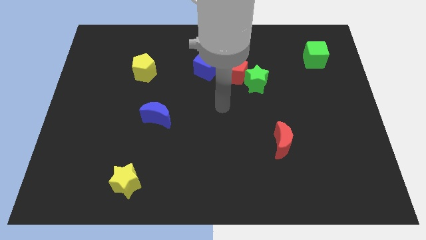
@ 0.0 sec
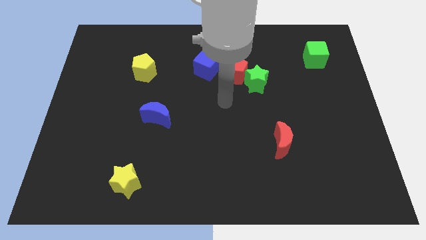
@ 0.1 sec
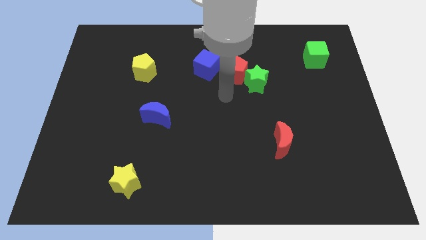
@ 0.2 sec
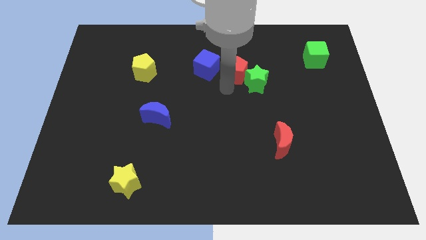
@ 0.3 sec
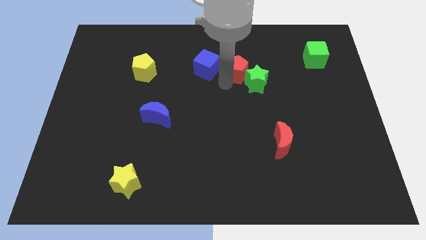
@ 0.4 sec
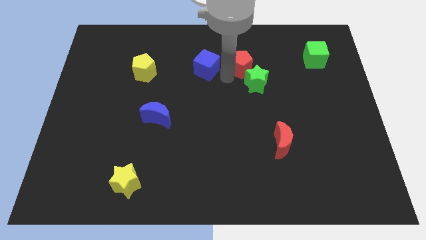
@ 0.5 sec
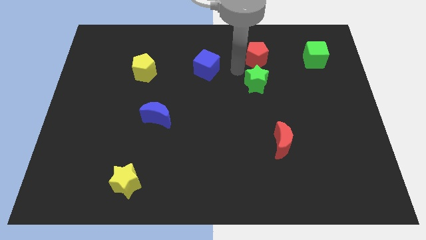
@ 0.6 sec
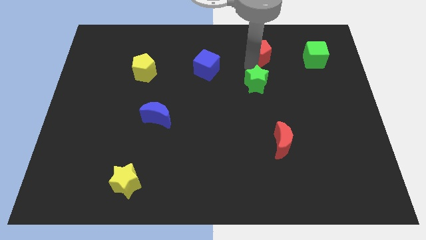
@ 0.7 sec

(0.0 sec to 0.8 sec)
separate the green star from the red pentagon

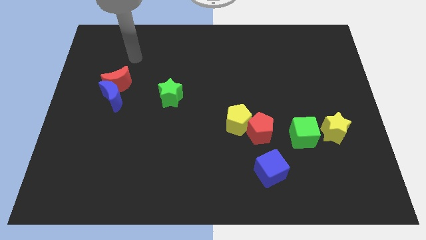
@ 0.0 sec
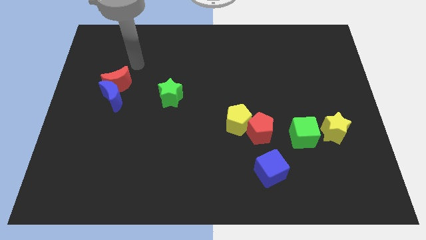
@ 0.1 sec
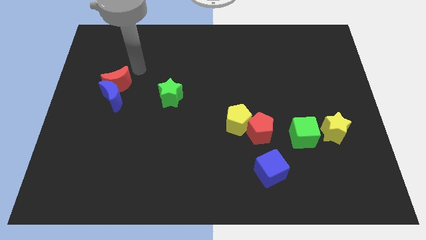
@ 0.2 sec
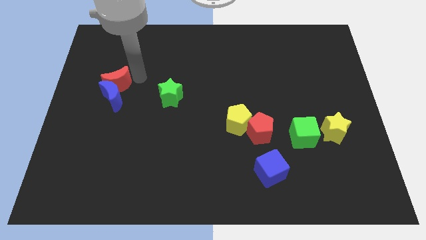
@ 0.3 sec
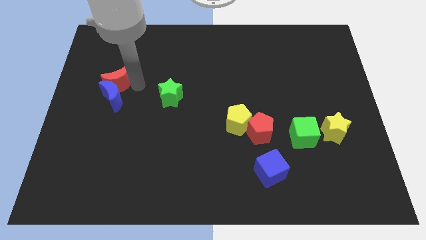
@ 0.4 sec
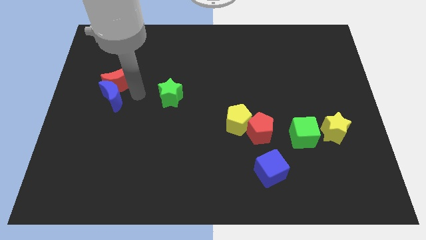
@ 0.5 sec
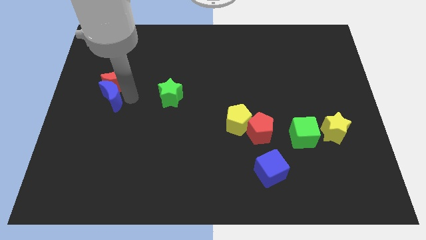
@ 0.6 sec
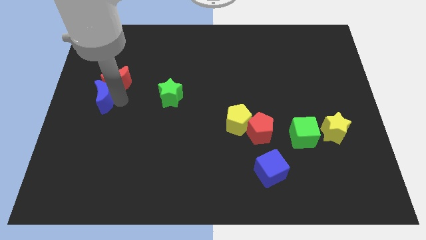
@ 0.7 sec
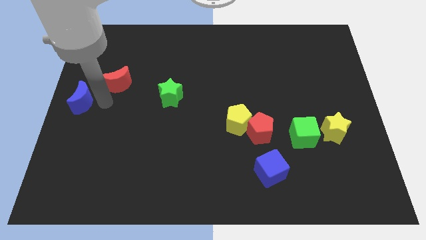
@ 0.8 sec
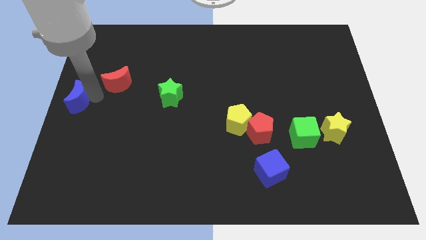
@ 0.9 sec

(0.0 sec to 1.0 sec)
separate the red moon from the blue moon

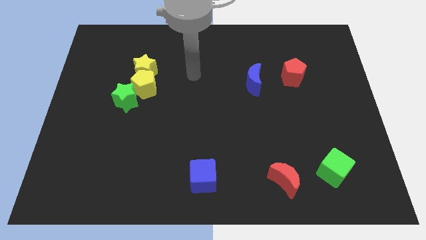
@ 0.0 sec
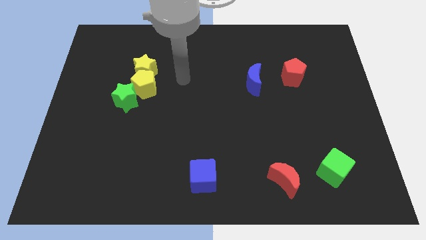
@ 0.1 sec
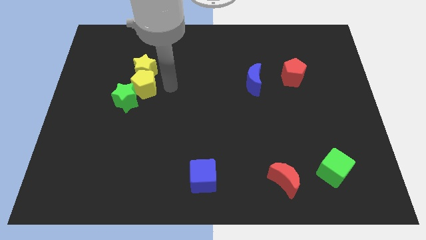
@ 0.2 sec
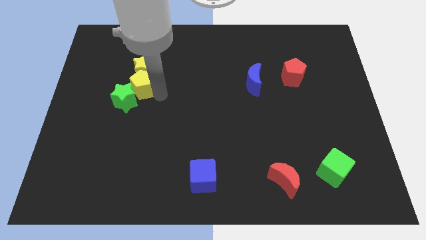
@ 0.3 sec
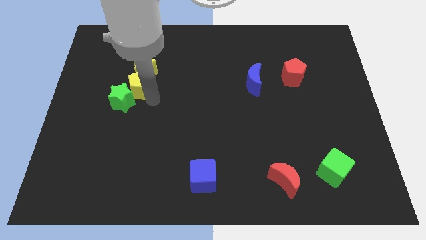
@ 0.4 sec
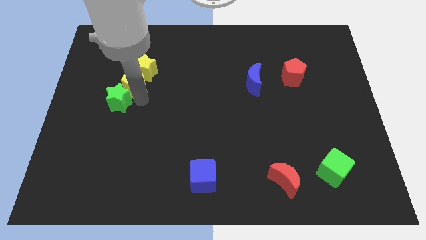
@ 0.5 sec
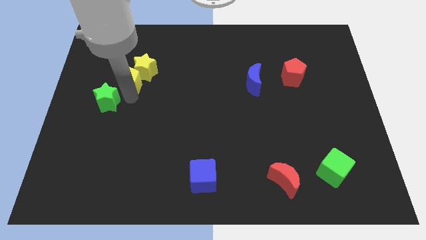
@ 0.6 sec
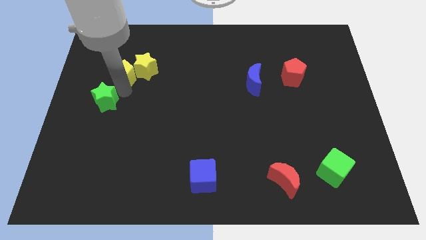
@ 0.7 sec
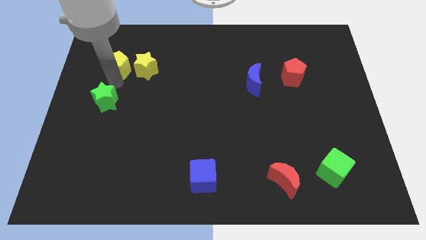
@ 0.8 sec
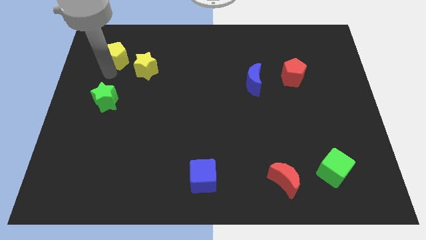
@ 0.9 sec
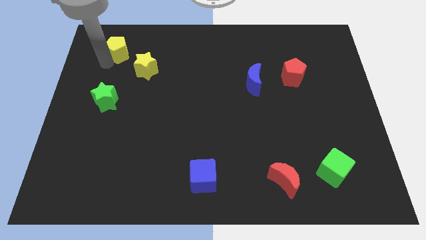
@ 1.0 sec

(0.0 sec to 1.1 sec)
separate the yellow pentagon from the green star and yellow star

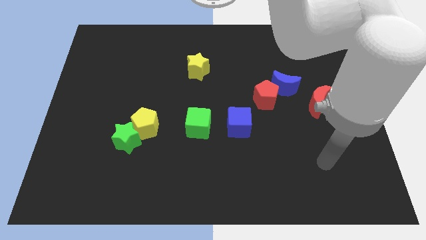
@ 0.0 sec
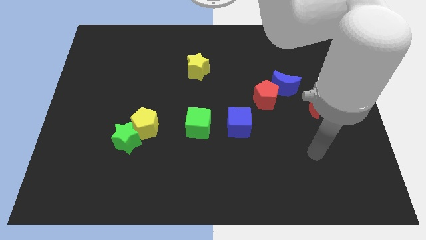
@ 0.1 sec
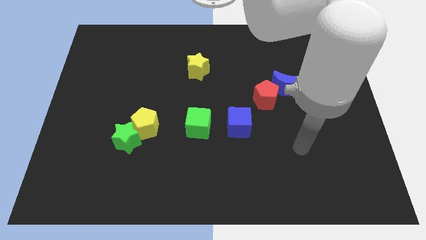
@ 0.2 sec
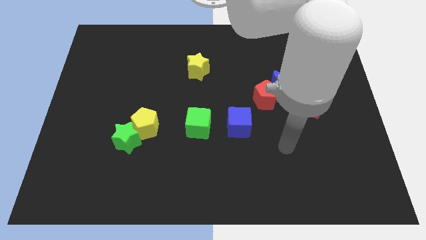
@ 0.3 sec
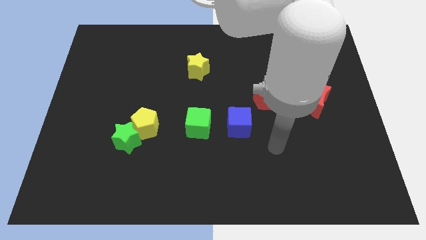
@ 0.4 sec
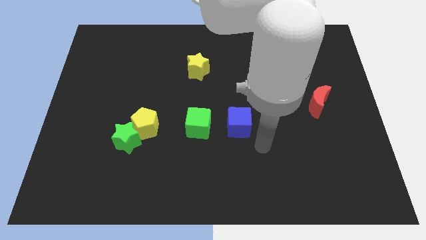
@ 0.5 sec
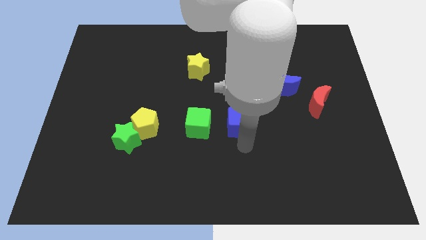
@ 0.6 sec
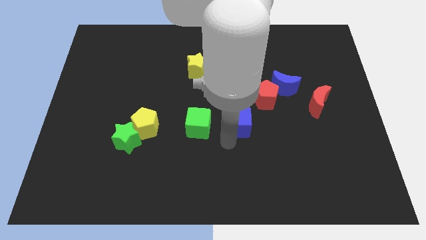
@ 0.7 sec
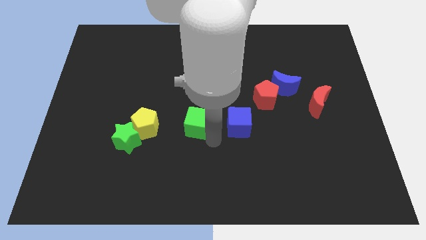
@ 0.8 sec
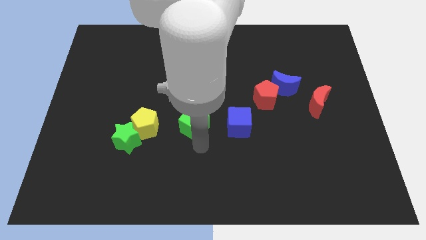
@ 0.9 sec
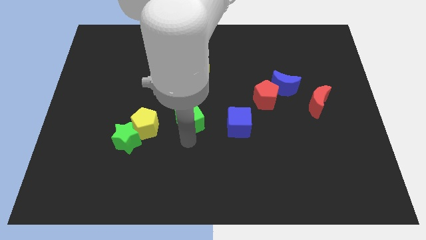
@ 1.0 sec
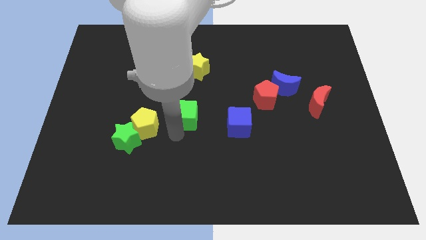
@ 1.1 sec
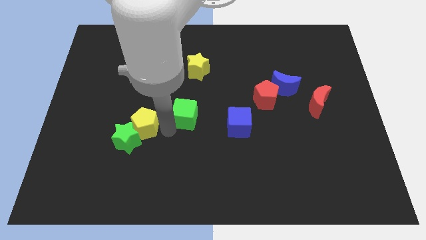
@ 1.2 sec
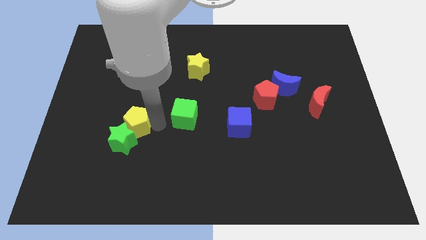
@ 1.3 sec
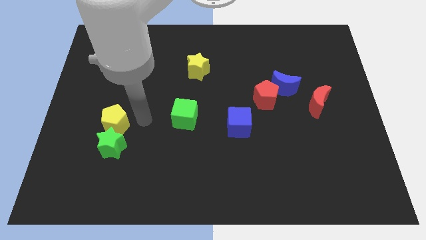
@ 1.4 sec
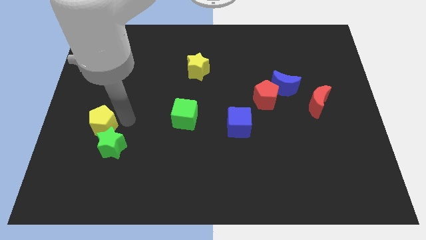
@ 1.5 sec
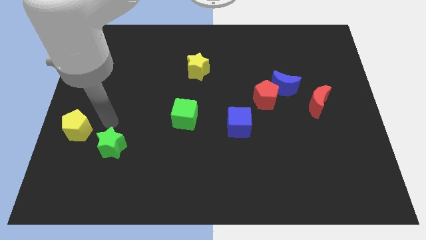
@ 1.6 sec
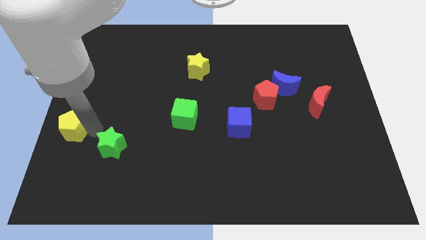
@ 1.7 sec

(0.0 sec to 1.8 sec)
move the green star away from the yellow pentagon

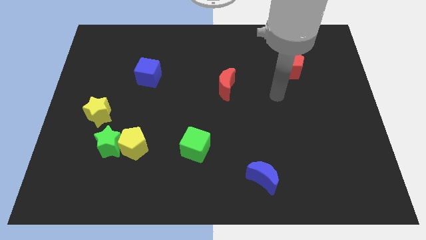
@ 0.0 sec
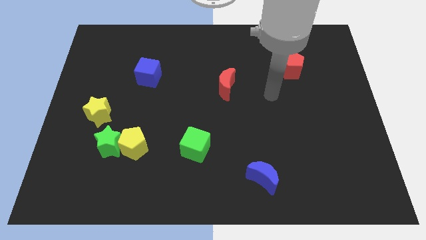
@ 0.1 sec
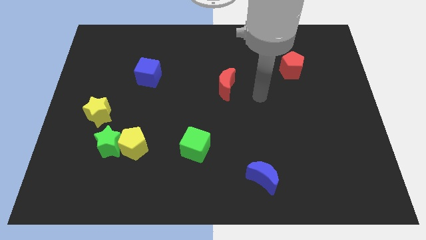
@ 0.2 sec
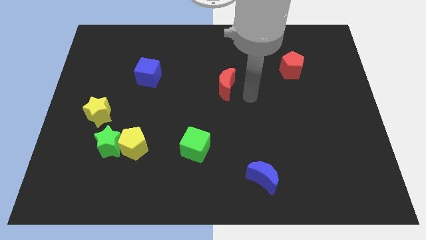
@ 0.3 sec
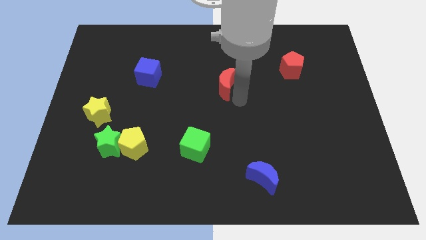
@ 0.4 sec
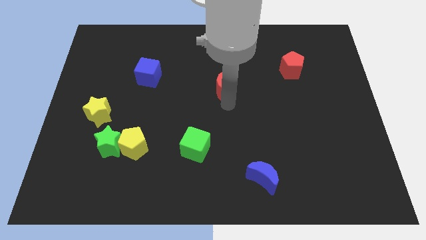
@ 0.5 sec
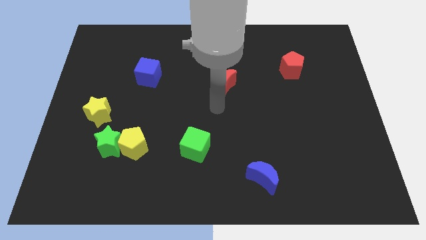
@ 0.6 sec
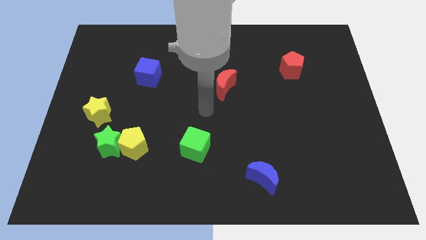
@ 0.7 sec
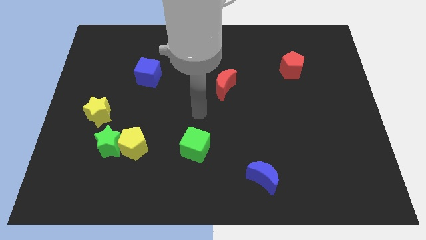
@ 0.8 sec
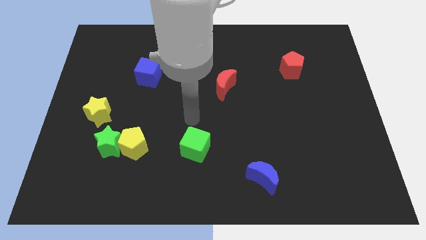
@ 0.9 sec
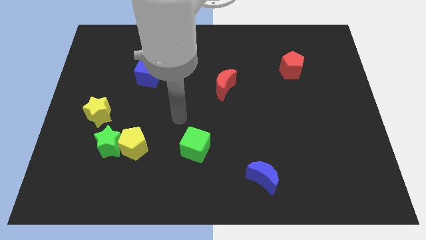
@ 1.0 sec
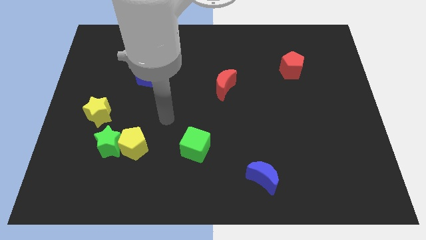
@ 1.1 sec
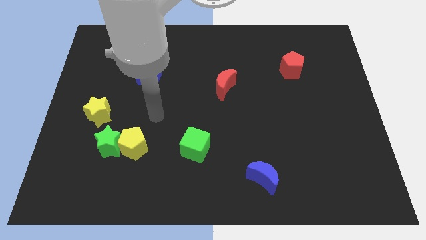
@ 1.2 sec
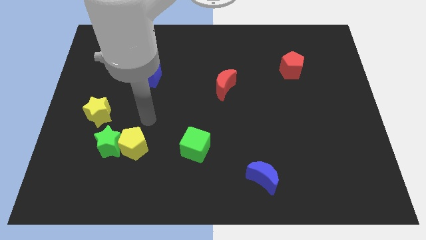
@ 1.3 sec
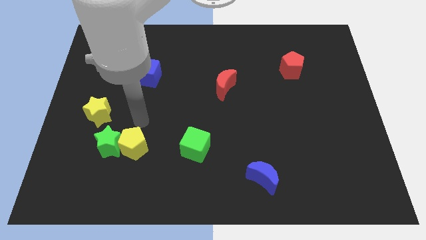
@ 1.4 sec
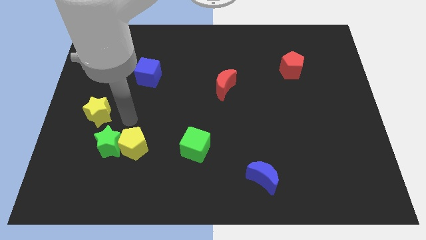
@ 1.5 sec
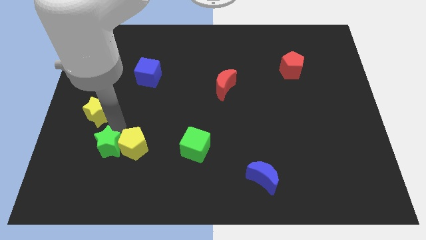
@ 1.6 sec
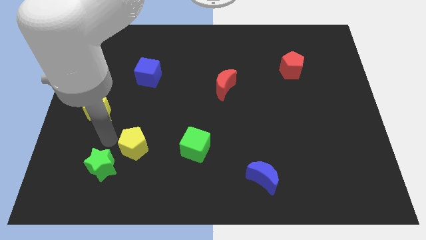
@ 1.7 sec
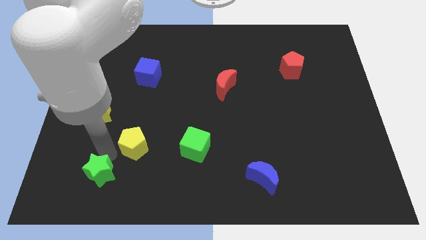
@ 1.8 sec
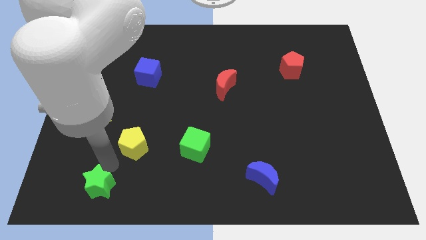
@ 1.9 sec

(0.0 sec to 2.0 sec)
pull the yellow pentagon apart from the green star

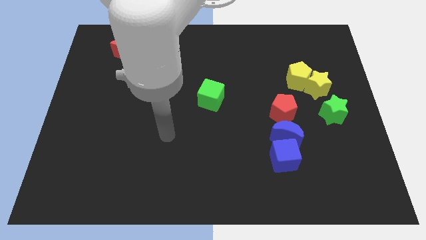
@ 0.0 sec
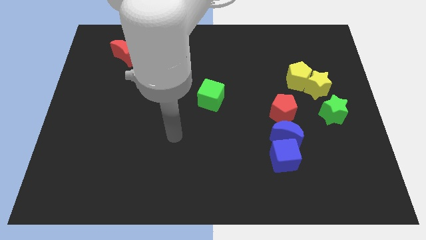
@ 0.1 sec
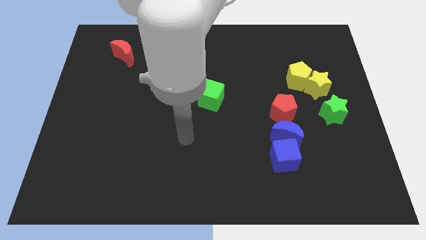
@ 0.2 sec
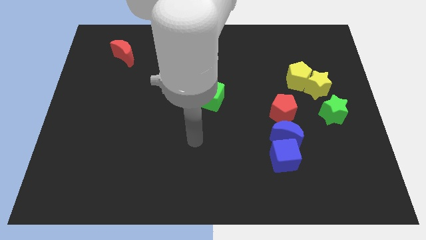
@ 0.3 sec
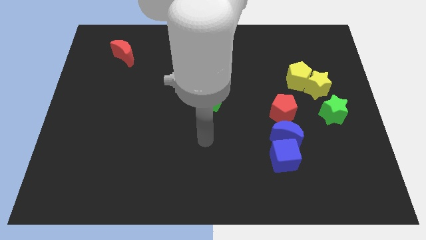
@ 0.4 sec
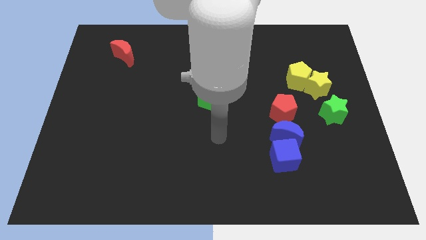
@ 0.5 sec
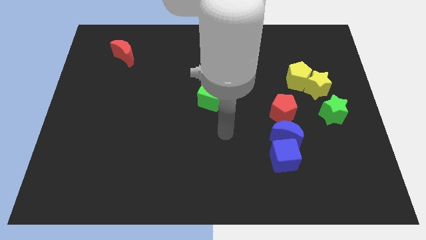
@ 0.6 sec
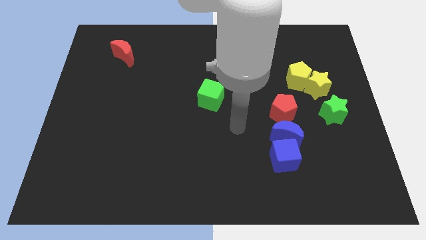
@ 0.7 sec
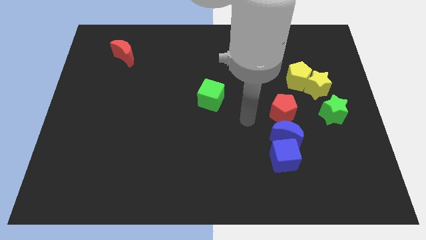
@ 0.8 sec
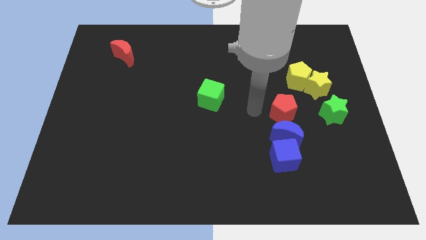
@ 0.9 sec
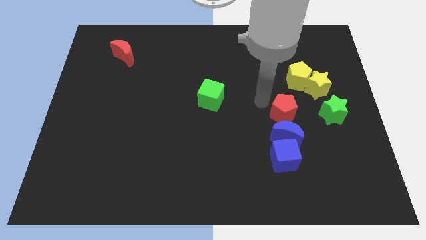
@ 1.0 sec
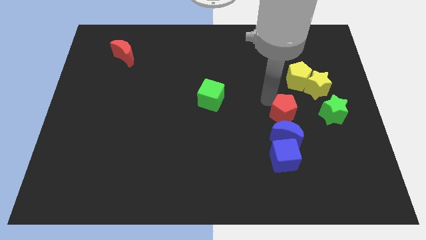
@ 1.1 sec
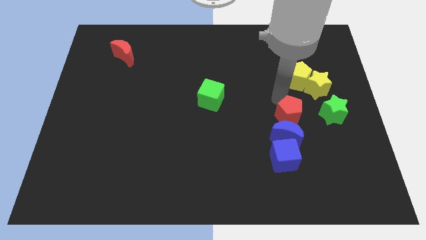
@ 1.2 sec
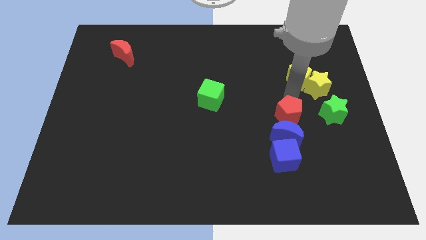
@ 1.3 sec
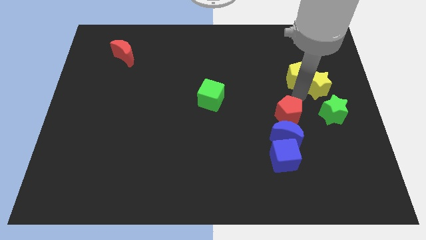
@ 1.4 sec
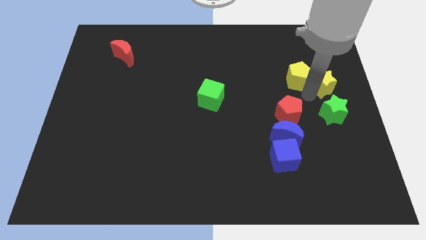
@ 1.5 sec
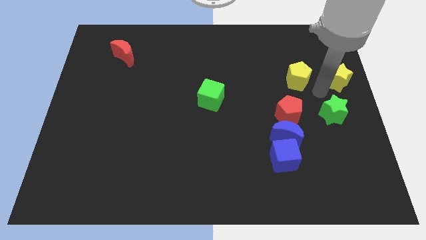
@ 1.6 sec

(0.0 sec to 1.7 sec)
pull the yellow pentagon apart from the yellow star

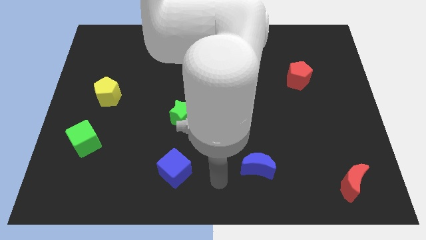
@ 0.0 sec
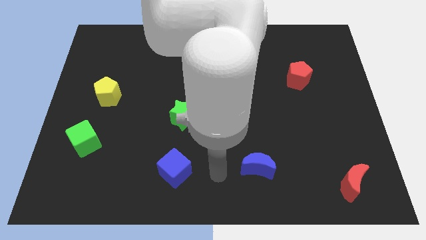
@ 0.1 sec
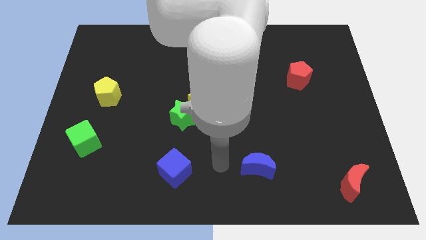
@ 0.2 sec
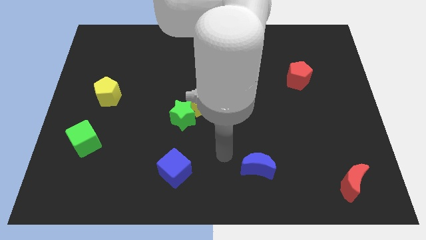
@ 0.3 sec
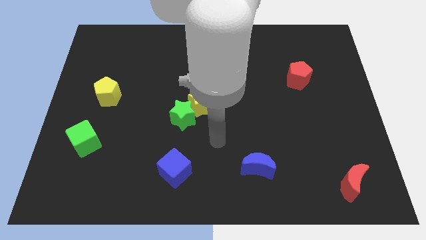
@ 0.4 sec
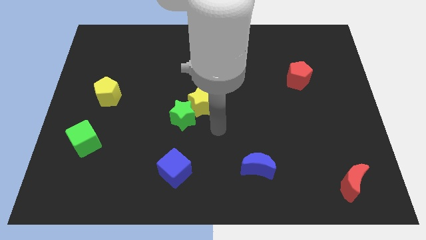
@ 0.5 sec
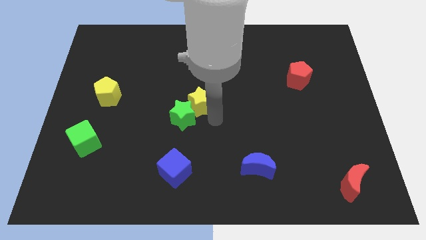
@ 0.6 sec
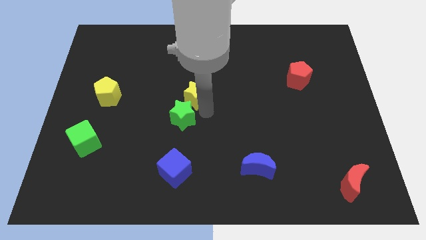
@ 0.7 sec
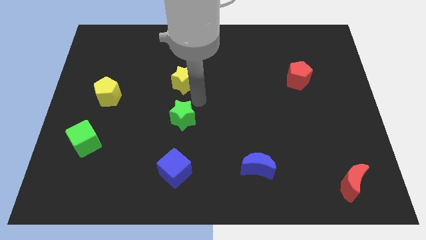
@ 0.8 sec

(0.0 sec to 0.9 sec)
move the green star away from the yellow star

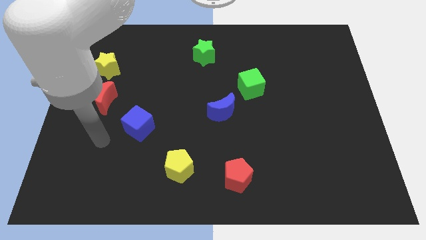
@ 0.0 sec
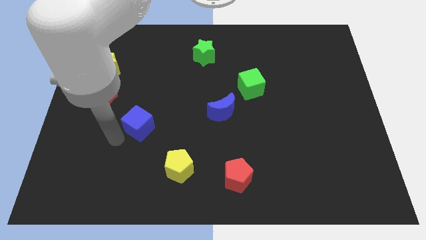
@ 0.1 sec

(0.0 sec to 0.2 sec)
move the blue moon away from the green cube
